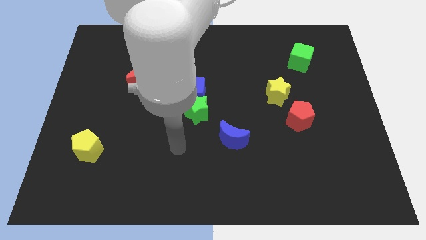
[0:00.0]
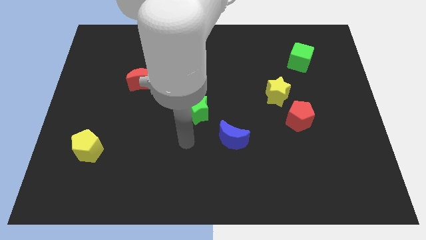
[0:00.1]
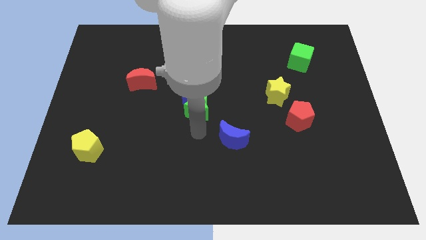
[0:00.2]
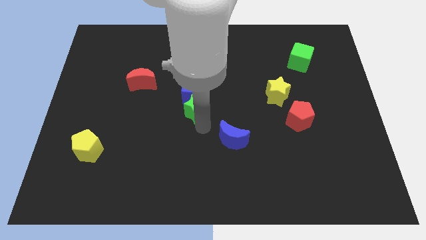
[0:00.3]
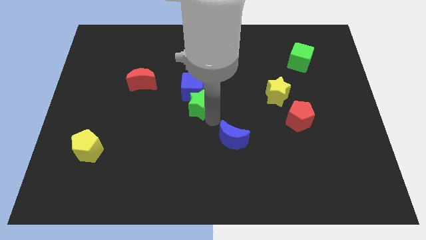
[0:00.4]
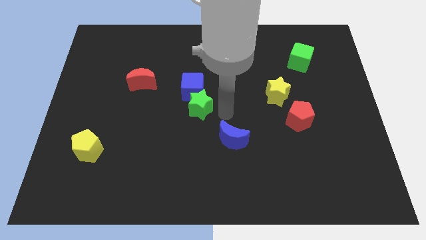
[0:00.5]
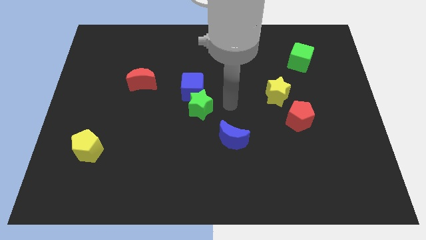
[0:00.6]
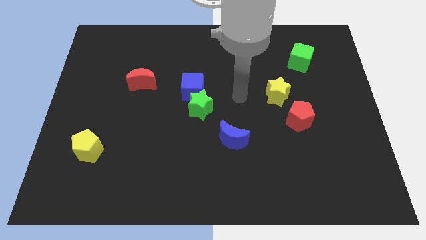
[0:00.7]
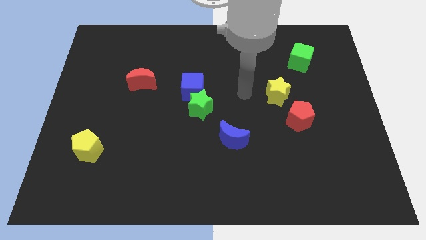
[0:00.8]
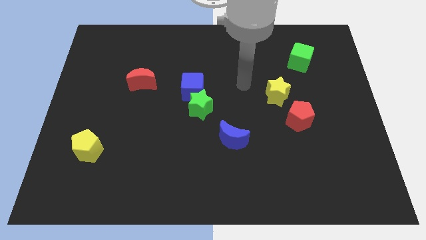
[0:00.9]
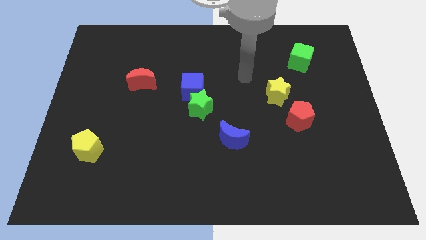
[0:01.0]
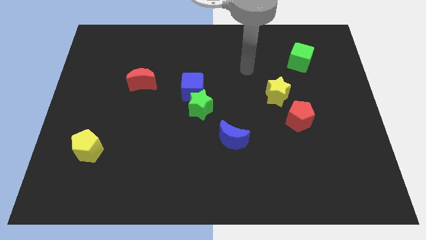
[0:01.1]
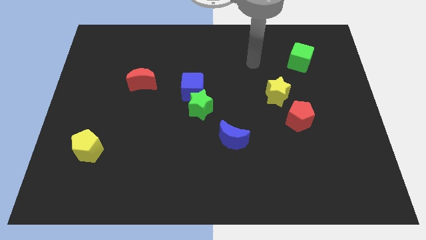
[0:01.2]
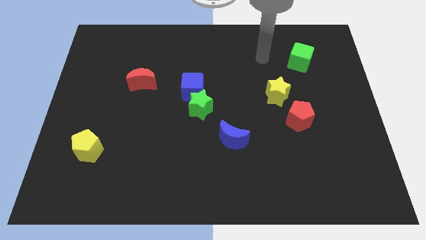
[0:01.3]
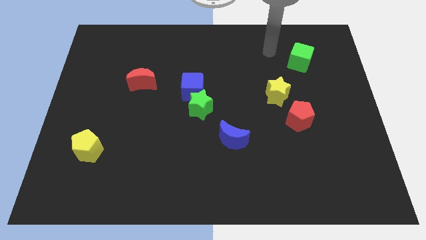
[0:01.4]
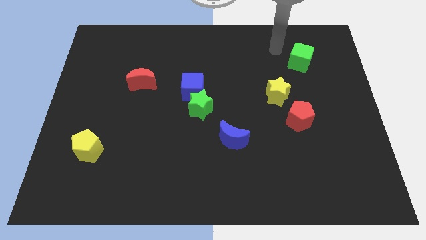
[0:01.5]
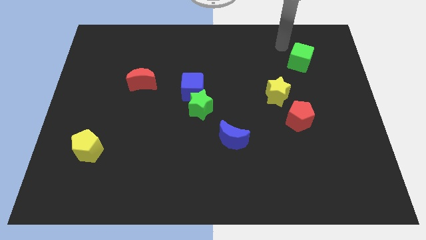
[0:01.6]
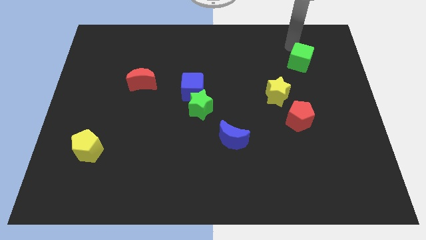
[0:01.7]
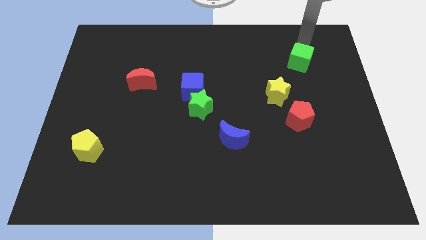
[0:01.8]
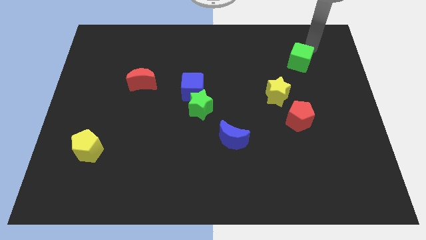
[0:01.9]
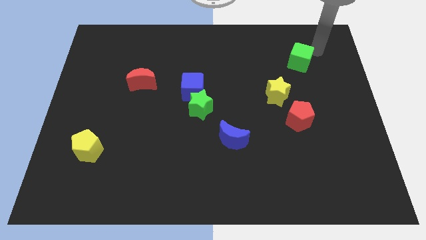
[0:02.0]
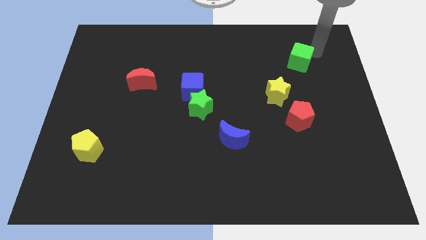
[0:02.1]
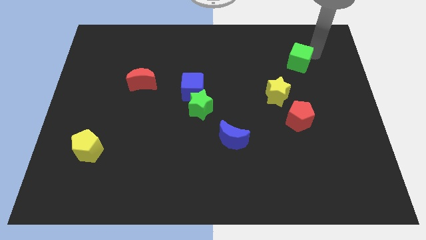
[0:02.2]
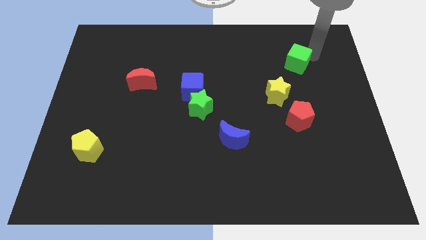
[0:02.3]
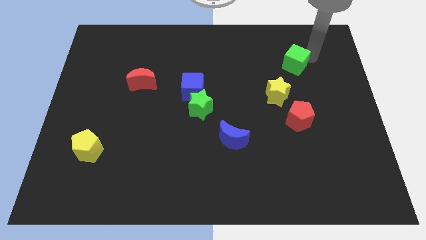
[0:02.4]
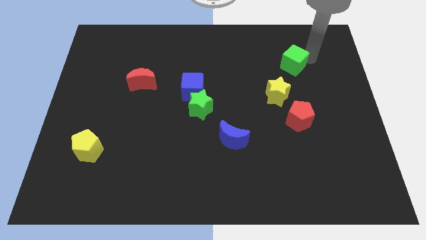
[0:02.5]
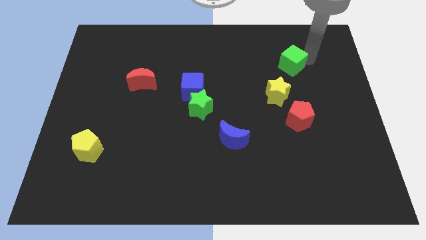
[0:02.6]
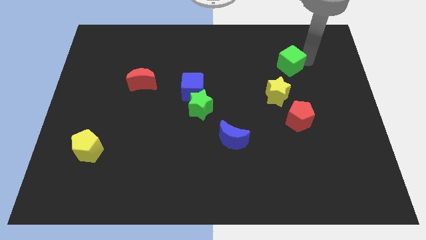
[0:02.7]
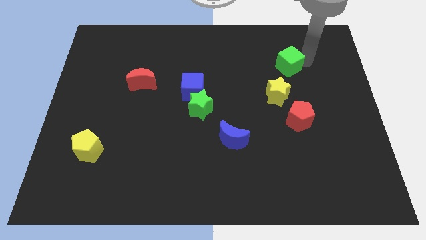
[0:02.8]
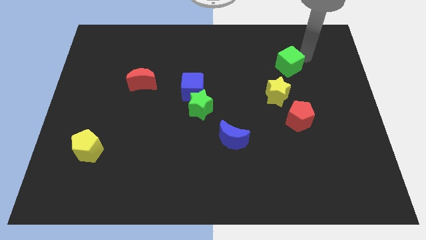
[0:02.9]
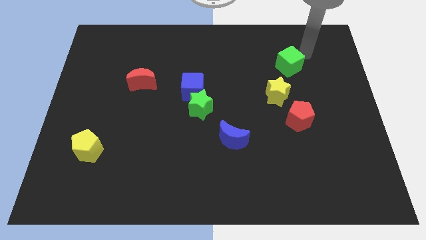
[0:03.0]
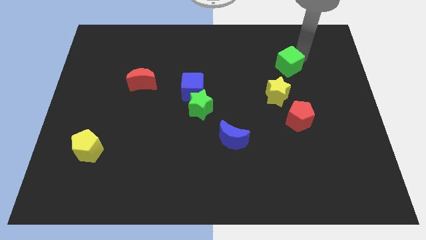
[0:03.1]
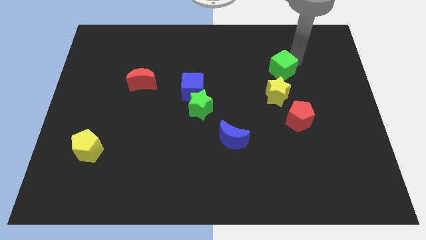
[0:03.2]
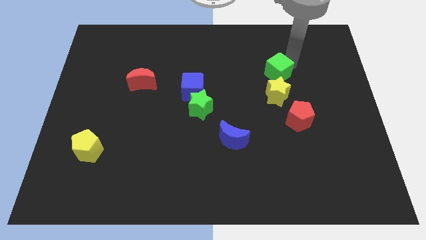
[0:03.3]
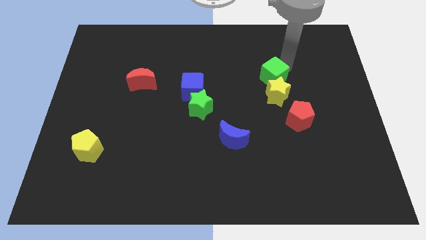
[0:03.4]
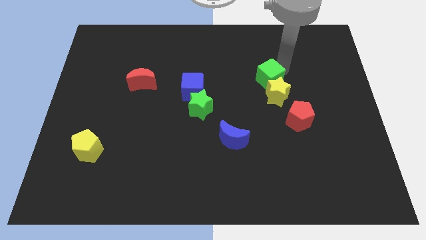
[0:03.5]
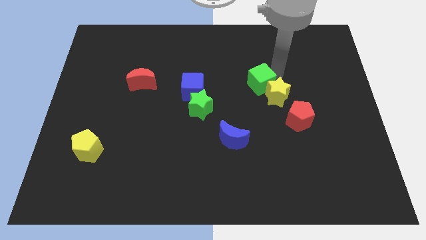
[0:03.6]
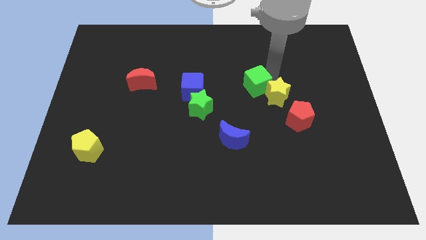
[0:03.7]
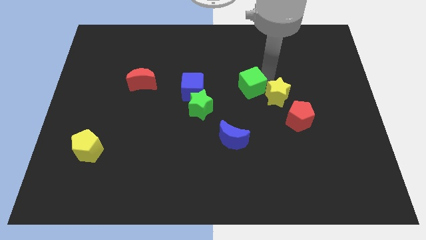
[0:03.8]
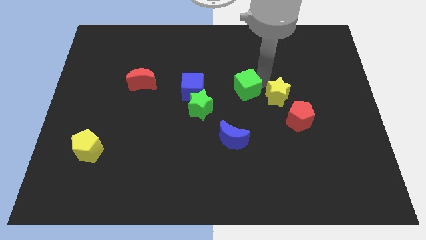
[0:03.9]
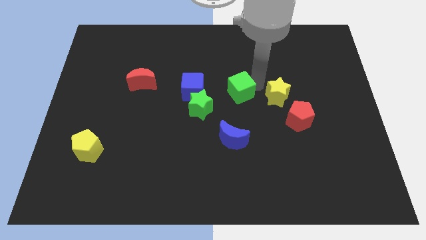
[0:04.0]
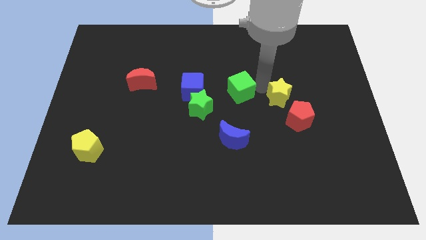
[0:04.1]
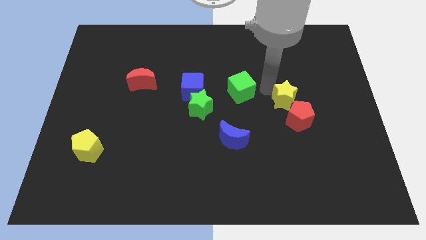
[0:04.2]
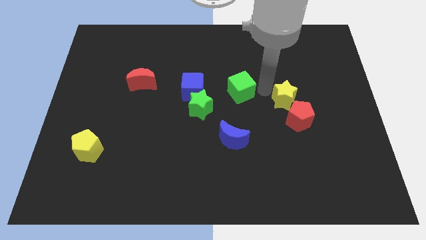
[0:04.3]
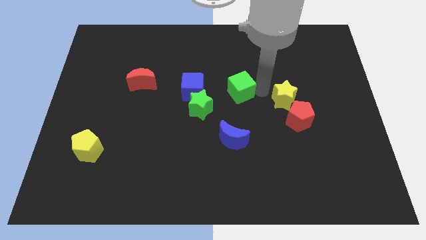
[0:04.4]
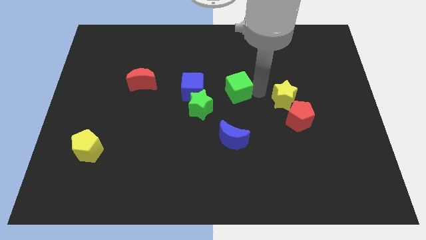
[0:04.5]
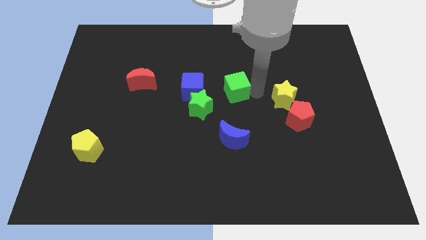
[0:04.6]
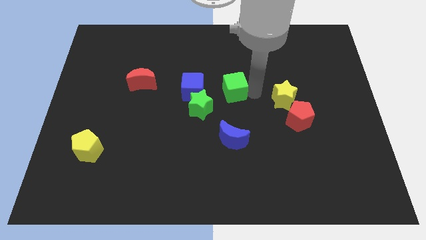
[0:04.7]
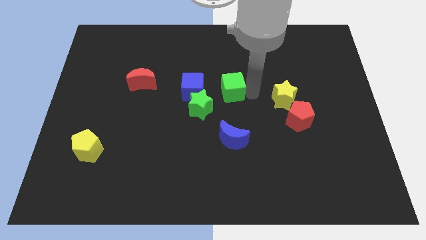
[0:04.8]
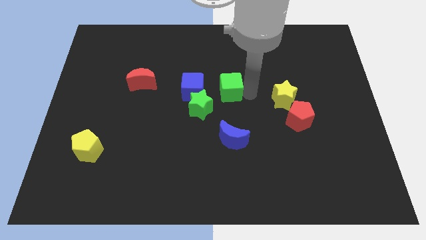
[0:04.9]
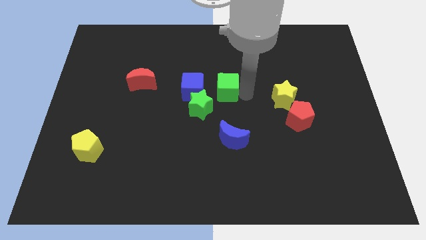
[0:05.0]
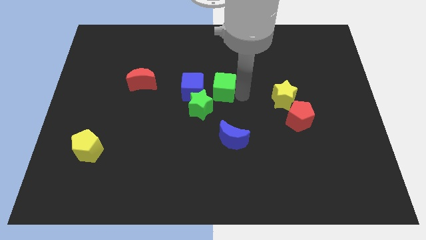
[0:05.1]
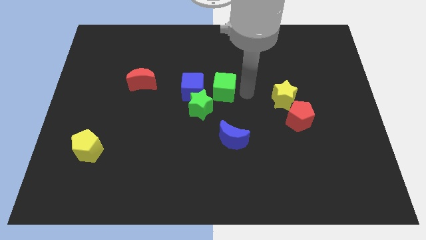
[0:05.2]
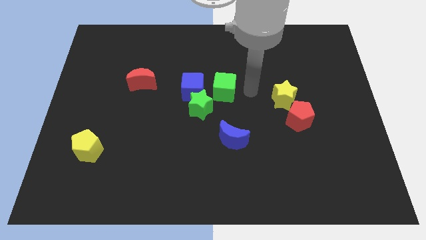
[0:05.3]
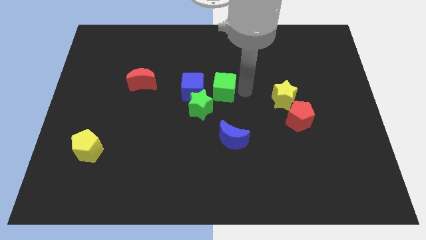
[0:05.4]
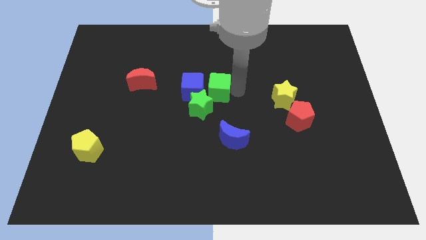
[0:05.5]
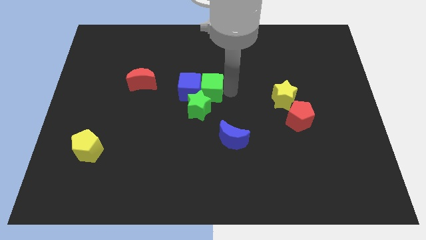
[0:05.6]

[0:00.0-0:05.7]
push the green cube close to the blue cube

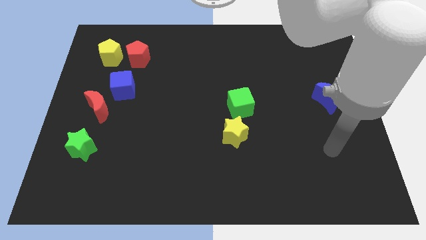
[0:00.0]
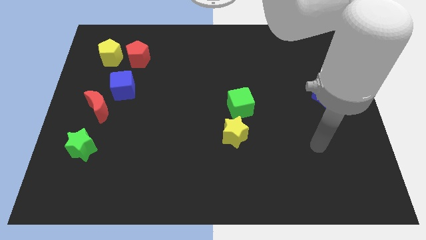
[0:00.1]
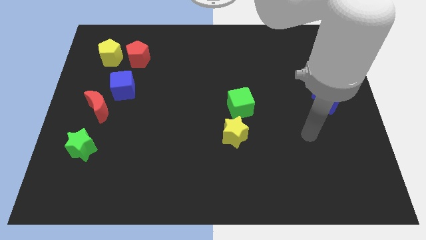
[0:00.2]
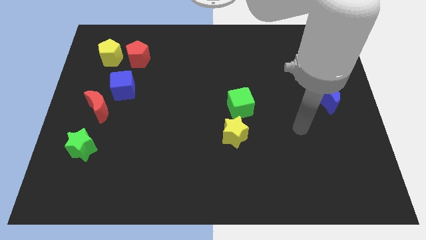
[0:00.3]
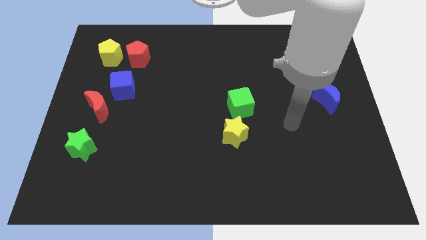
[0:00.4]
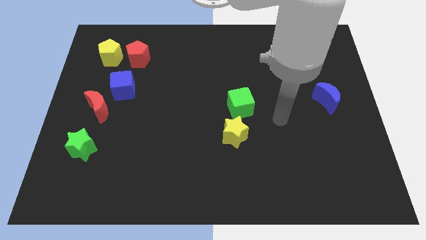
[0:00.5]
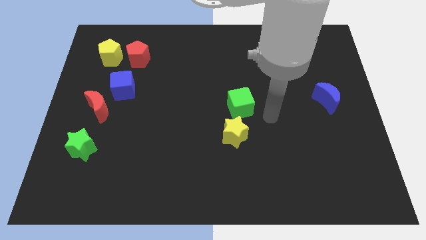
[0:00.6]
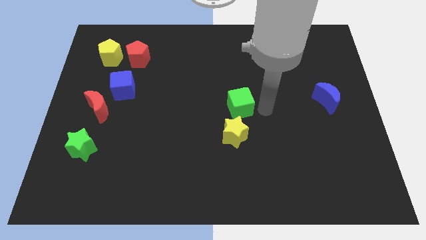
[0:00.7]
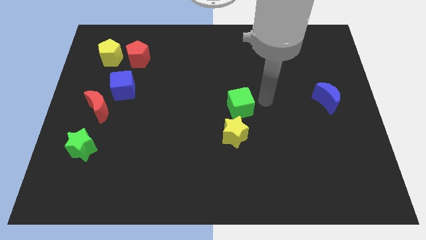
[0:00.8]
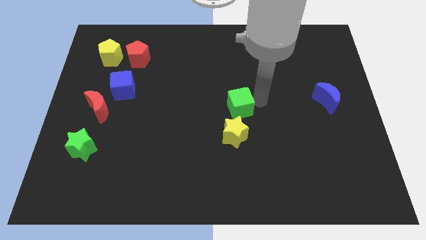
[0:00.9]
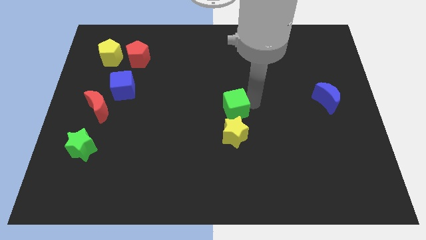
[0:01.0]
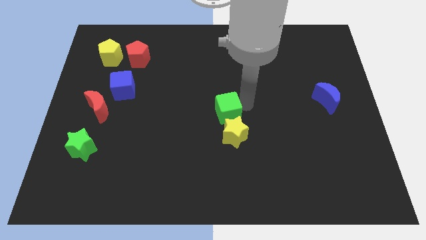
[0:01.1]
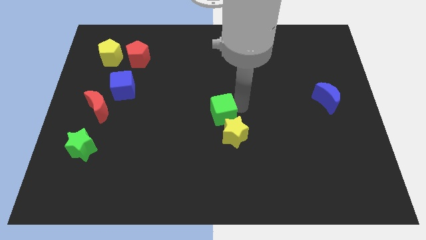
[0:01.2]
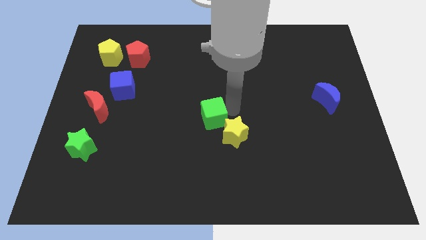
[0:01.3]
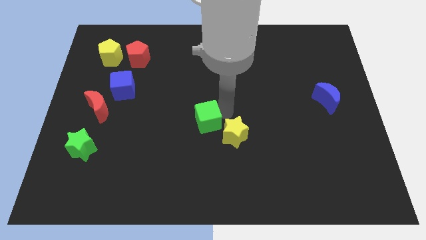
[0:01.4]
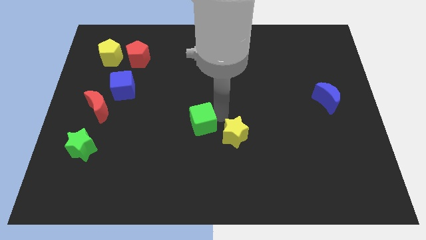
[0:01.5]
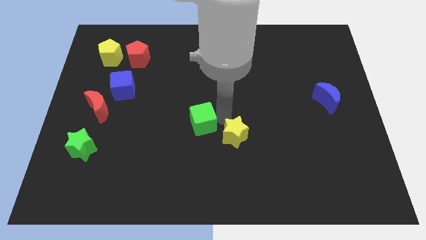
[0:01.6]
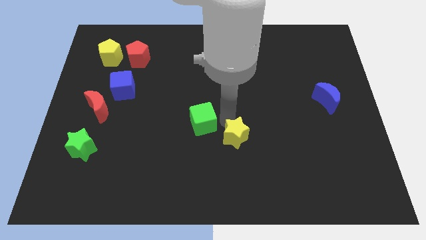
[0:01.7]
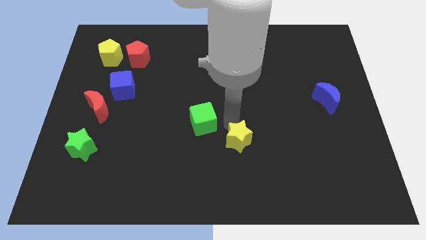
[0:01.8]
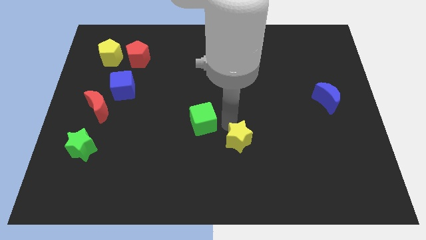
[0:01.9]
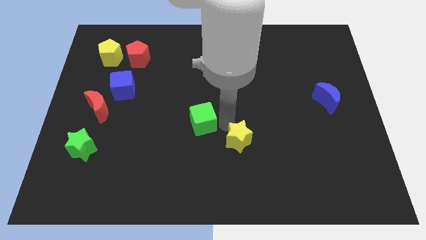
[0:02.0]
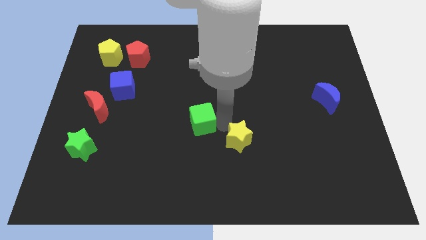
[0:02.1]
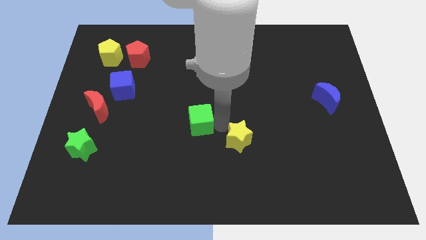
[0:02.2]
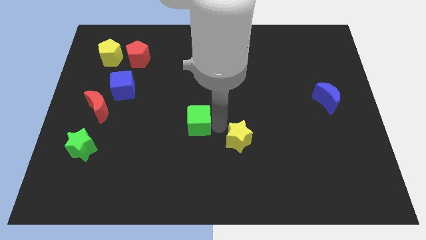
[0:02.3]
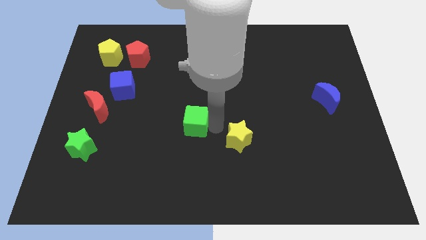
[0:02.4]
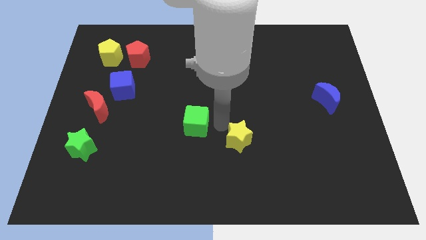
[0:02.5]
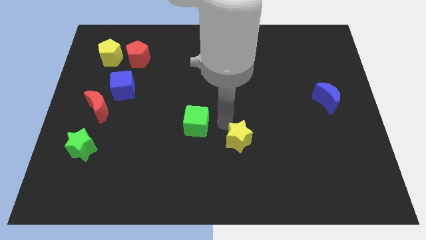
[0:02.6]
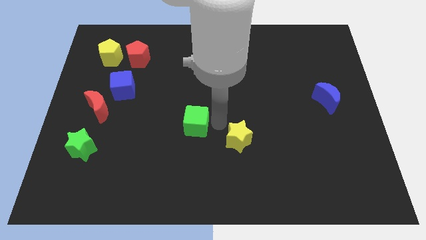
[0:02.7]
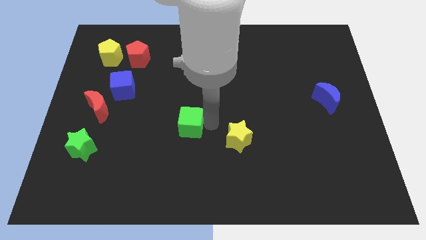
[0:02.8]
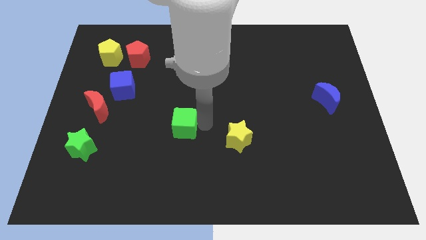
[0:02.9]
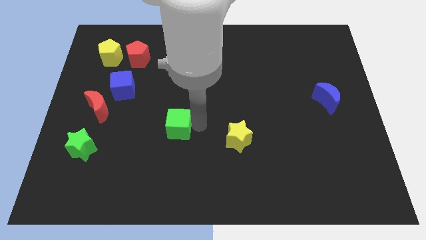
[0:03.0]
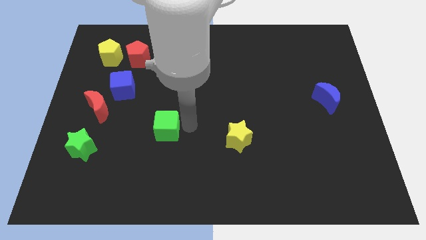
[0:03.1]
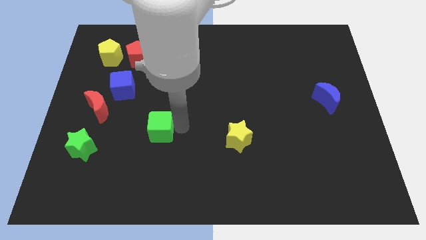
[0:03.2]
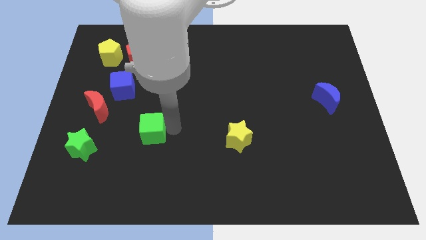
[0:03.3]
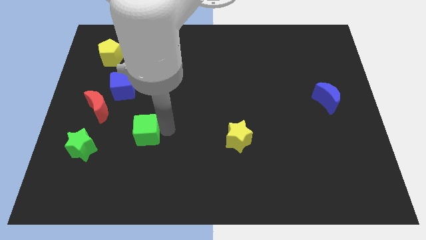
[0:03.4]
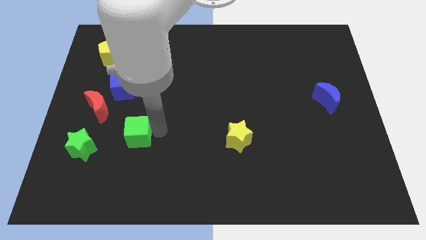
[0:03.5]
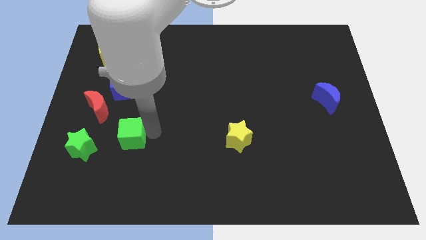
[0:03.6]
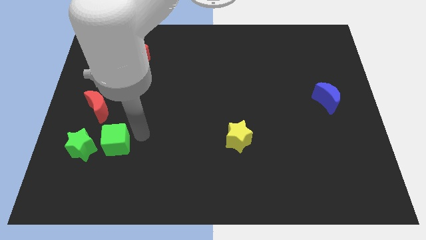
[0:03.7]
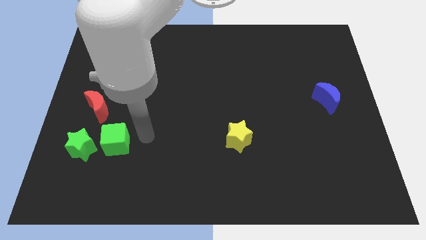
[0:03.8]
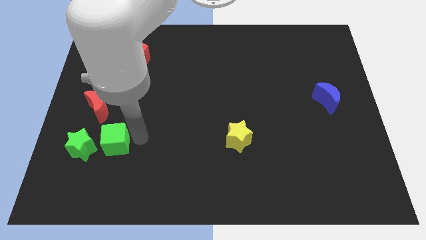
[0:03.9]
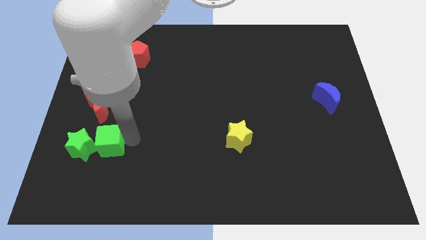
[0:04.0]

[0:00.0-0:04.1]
slide the green cube to the green star
